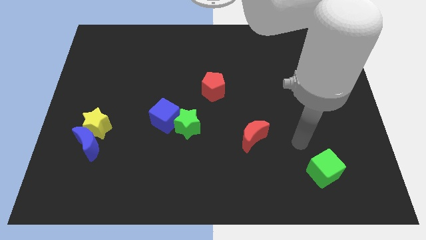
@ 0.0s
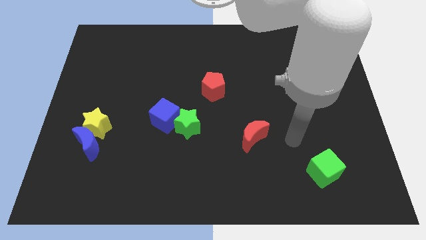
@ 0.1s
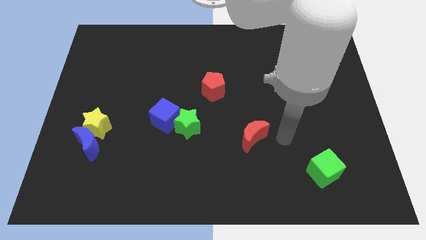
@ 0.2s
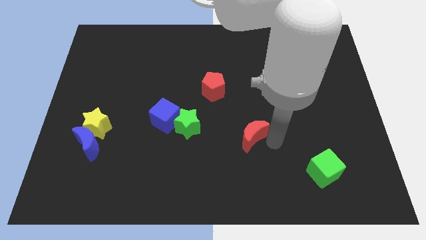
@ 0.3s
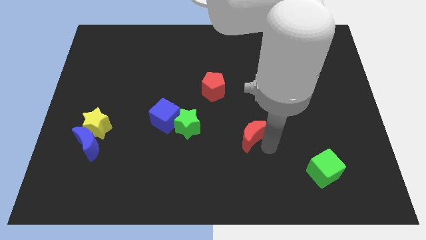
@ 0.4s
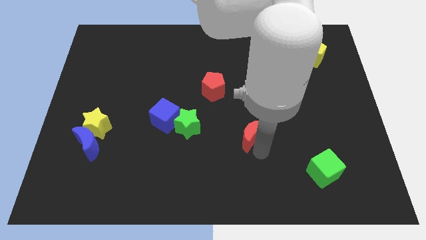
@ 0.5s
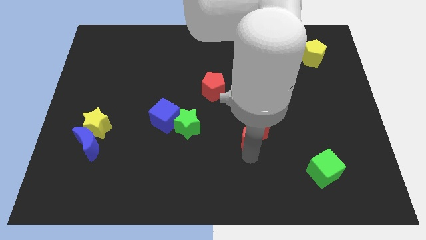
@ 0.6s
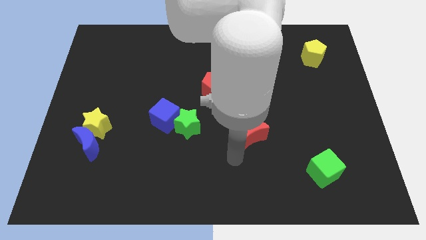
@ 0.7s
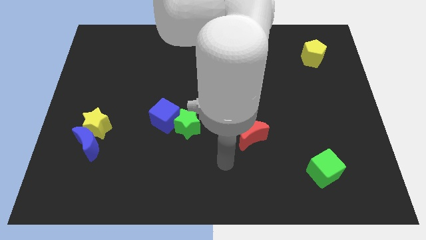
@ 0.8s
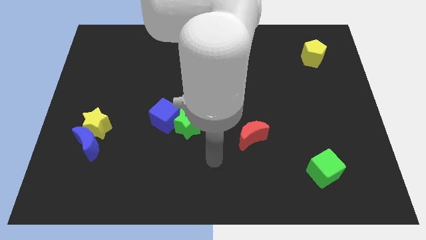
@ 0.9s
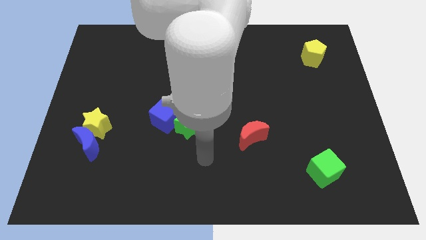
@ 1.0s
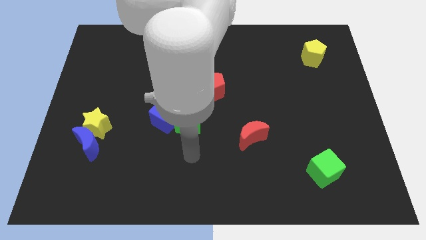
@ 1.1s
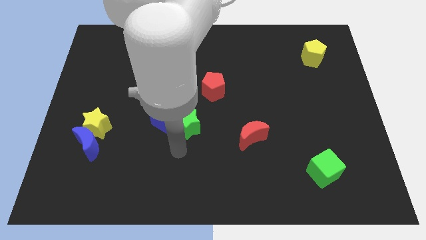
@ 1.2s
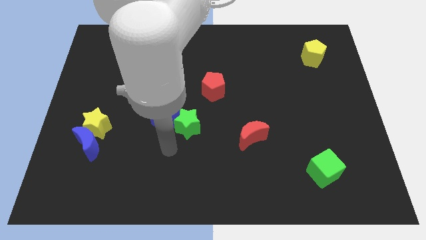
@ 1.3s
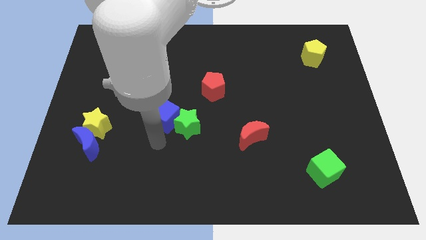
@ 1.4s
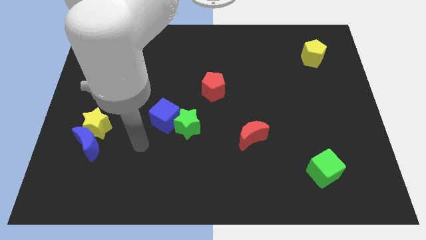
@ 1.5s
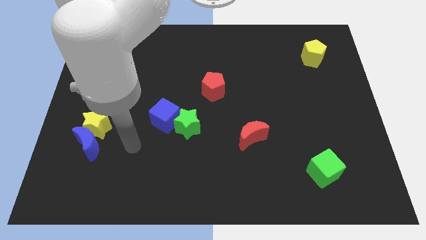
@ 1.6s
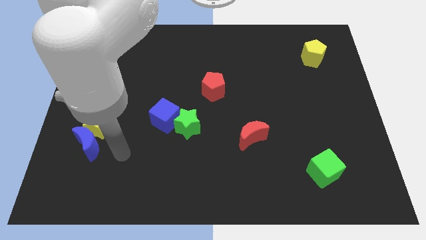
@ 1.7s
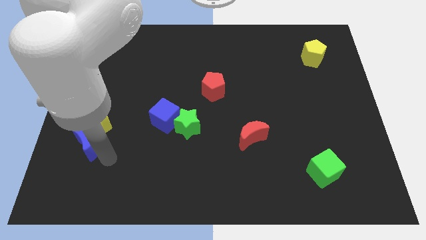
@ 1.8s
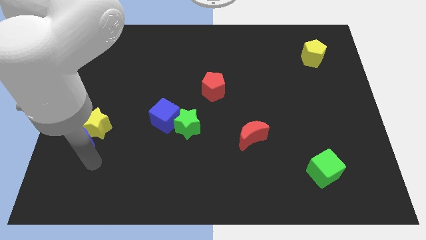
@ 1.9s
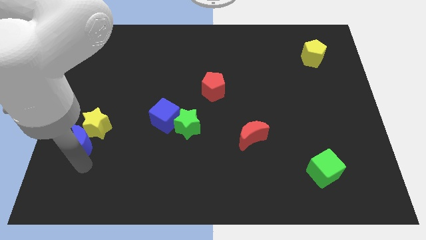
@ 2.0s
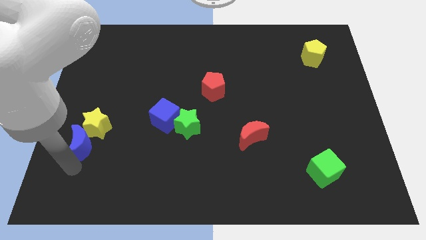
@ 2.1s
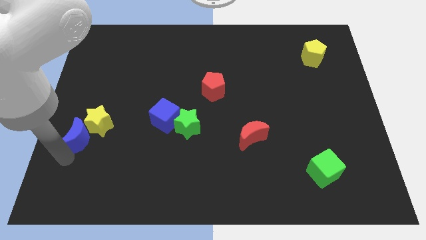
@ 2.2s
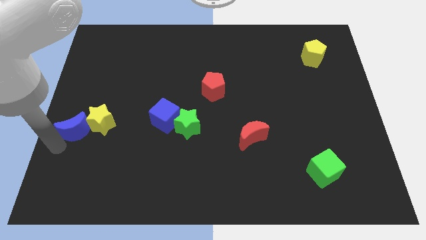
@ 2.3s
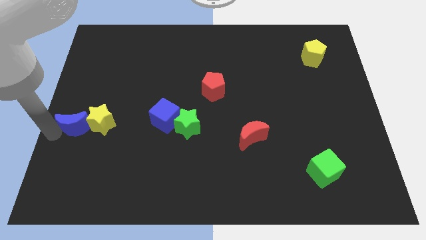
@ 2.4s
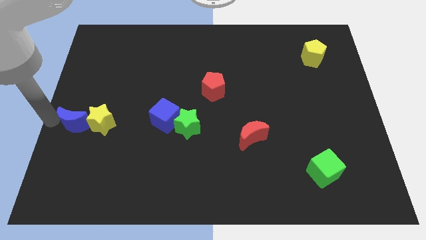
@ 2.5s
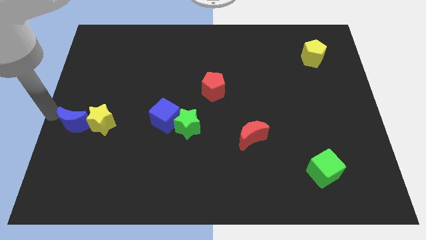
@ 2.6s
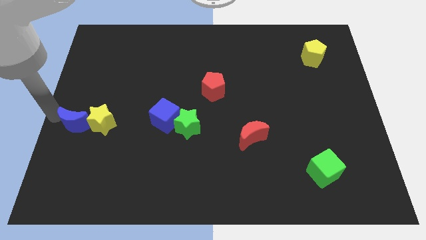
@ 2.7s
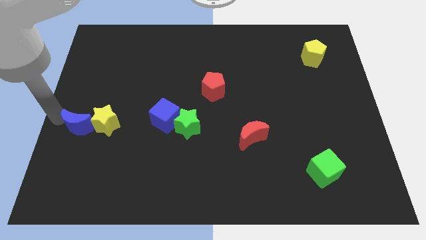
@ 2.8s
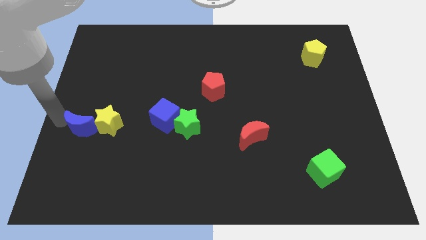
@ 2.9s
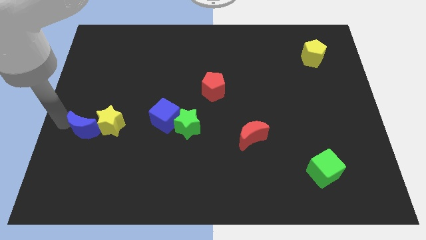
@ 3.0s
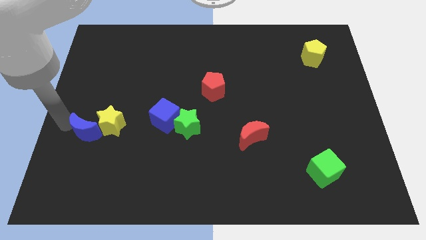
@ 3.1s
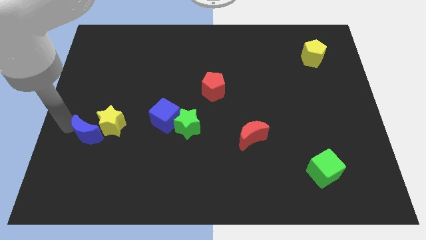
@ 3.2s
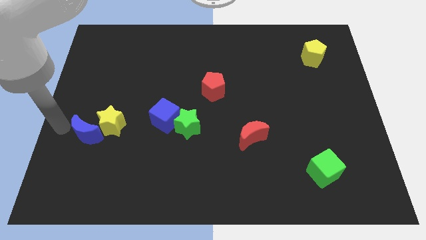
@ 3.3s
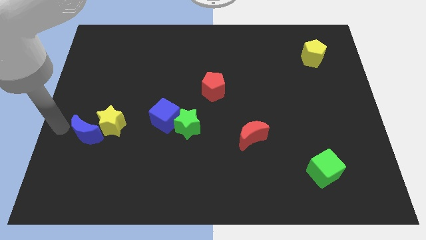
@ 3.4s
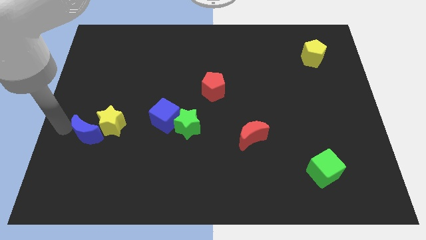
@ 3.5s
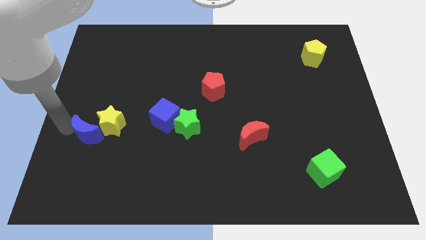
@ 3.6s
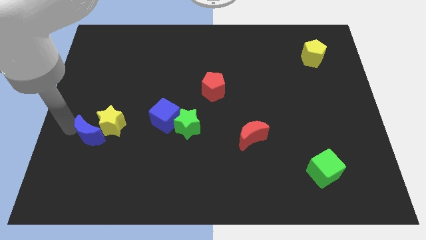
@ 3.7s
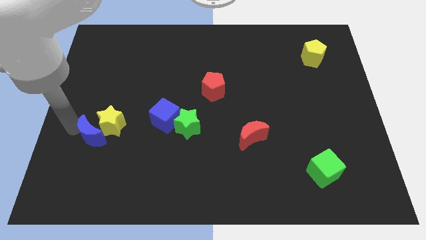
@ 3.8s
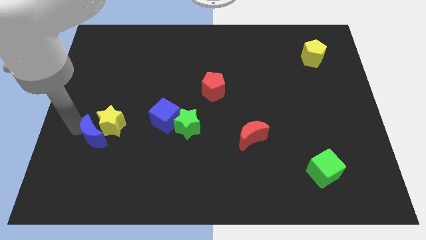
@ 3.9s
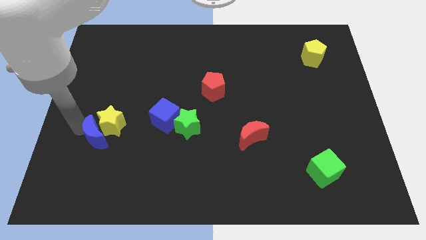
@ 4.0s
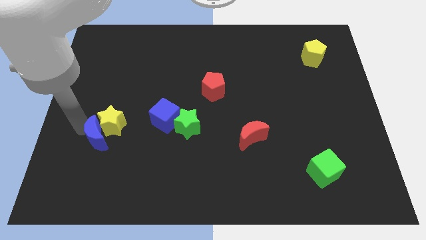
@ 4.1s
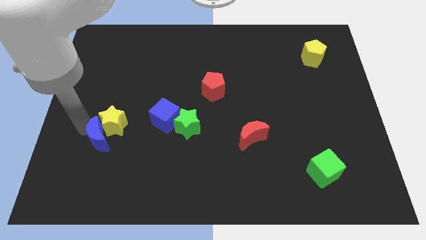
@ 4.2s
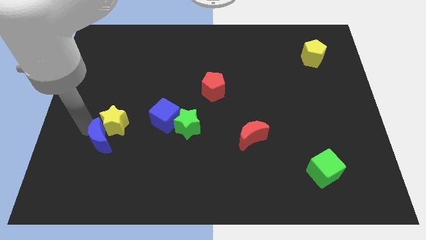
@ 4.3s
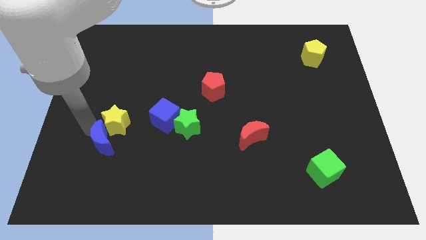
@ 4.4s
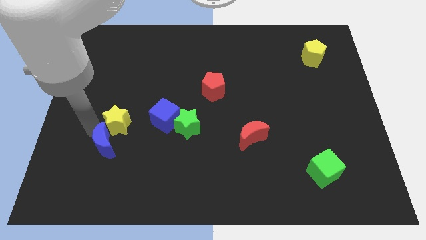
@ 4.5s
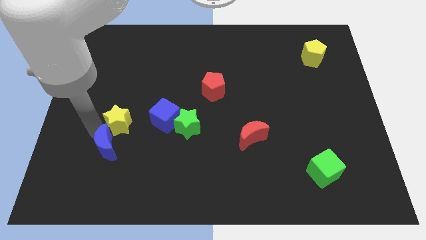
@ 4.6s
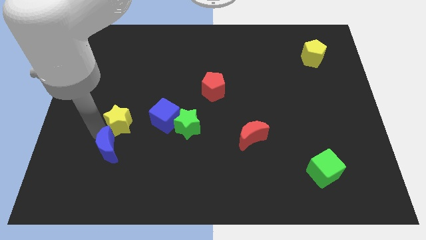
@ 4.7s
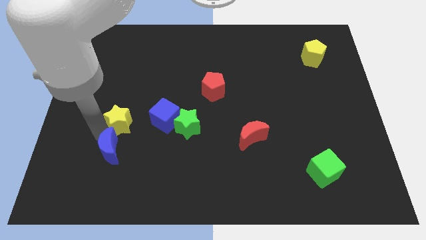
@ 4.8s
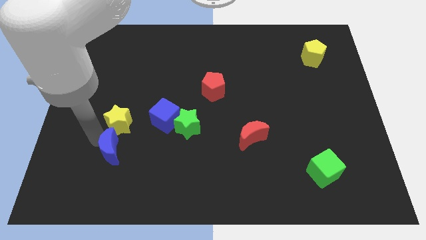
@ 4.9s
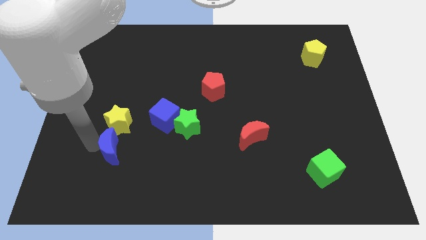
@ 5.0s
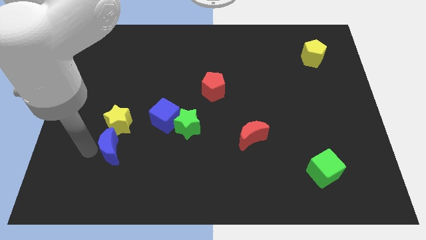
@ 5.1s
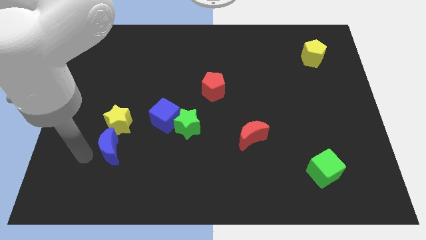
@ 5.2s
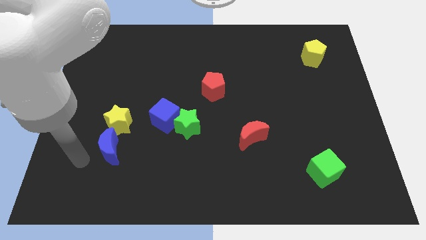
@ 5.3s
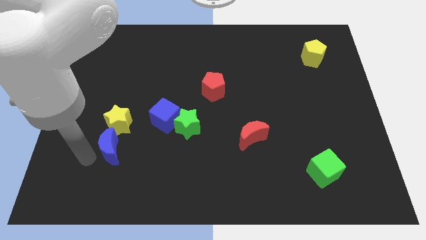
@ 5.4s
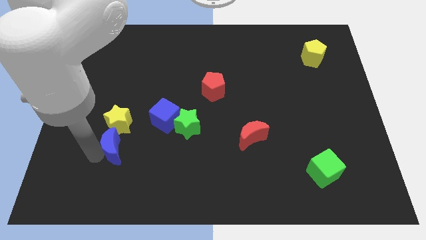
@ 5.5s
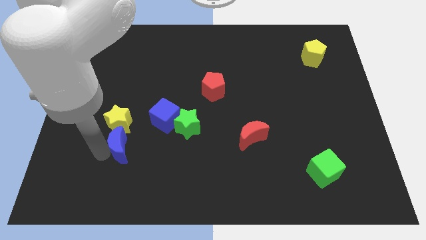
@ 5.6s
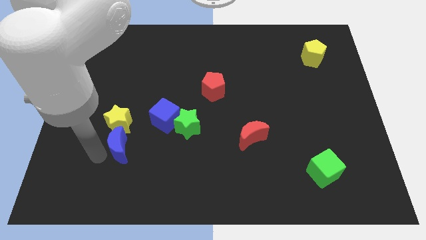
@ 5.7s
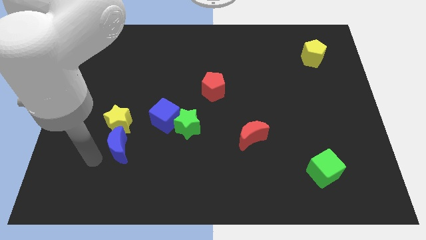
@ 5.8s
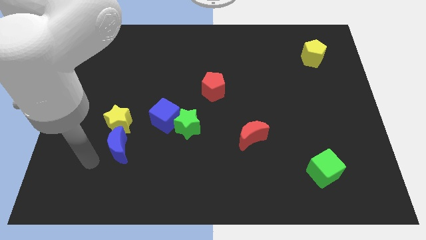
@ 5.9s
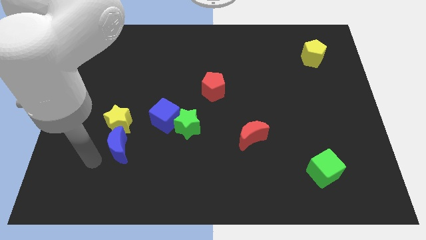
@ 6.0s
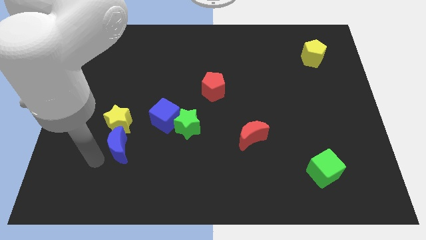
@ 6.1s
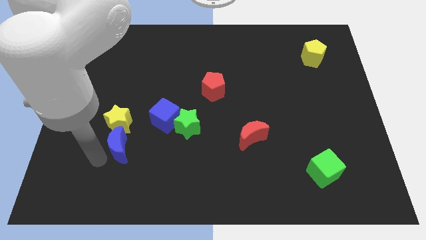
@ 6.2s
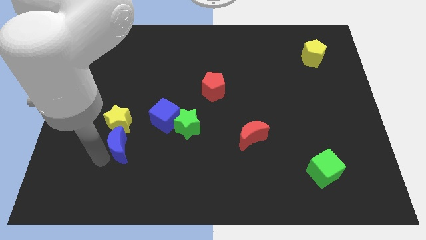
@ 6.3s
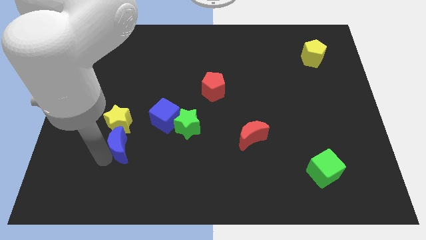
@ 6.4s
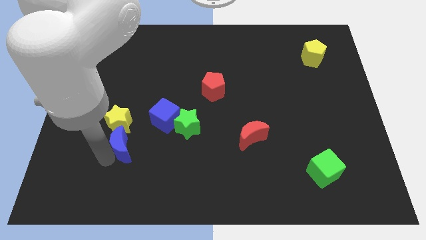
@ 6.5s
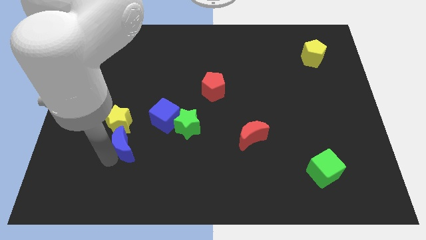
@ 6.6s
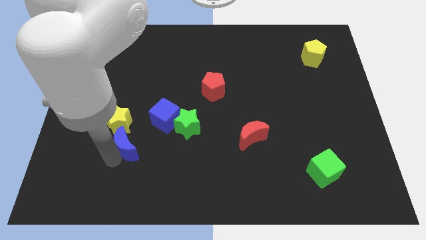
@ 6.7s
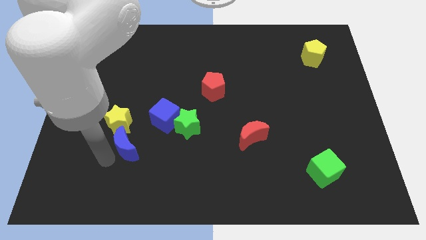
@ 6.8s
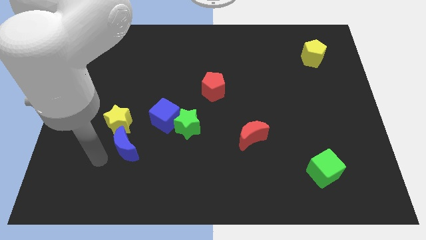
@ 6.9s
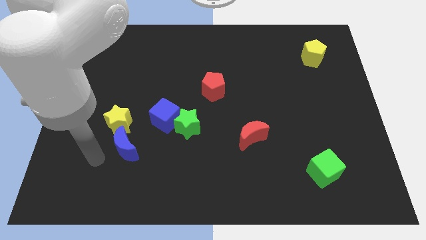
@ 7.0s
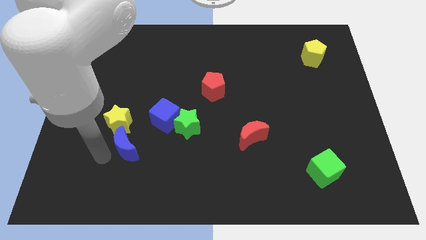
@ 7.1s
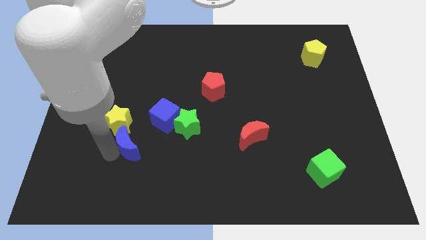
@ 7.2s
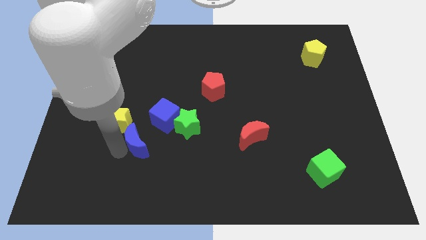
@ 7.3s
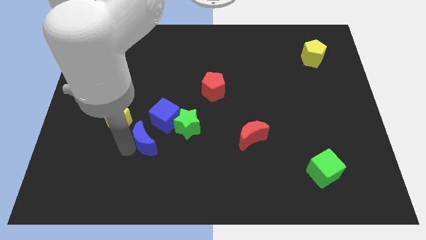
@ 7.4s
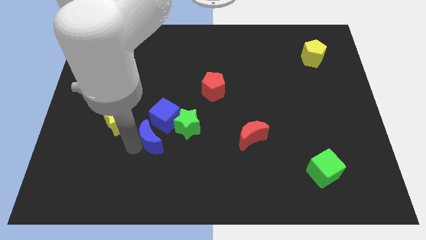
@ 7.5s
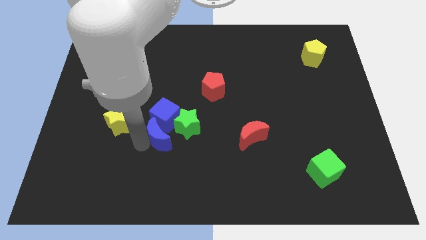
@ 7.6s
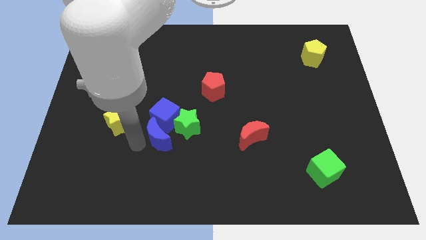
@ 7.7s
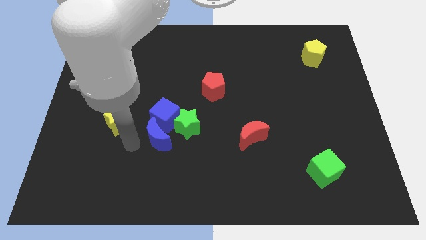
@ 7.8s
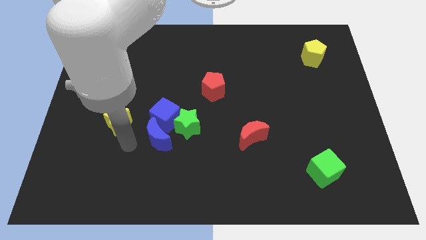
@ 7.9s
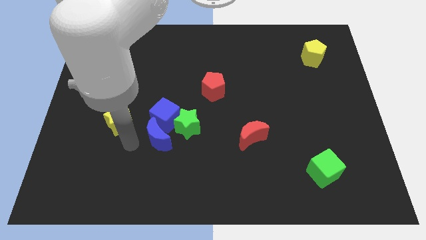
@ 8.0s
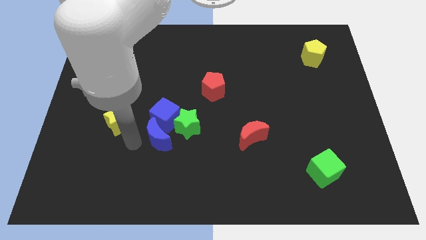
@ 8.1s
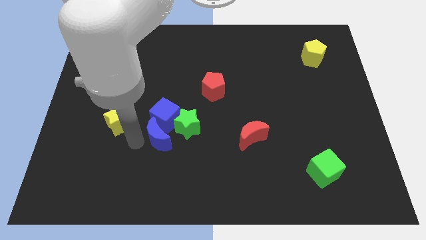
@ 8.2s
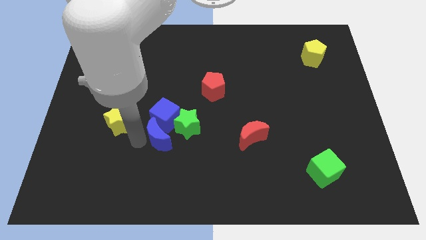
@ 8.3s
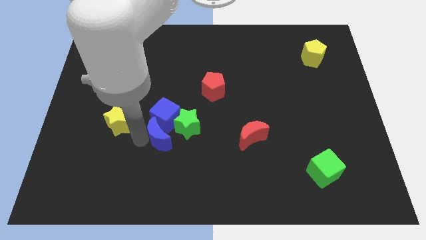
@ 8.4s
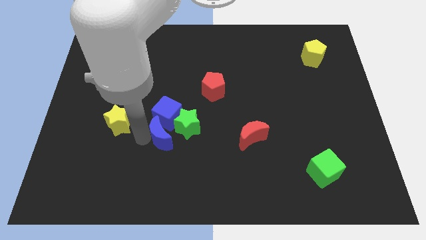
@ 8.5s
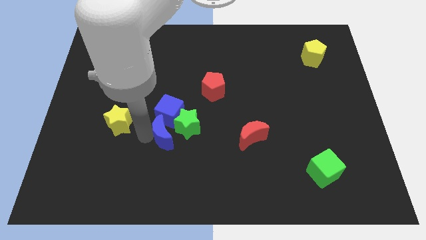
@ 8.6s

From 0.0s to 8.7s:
slide the blue moon towards the green star
